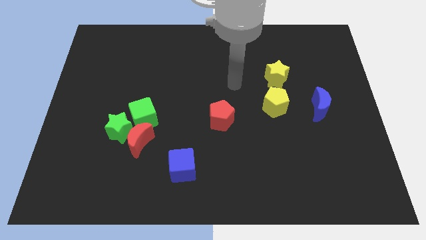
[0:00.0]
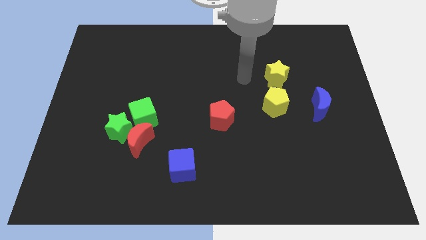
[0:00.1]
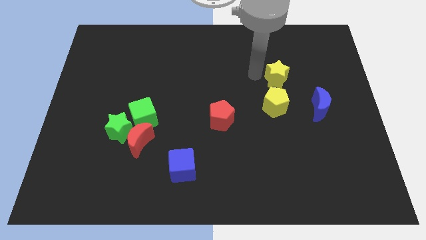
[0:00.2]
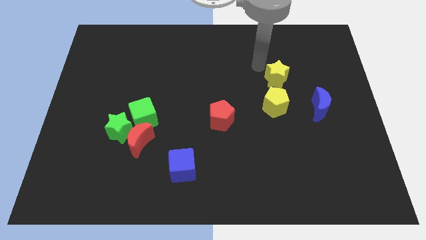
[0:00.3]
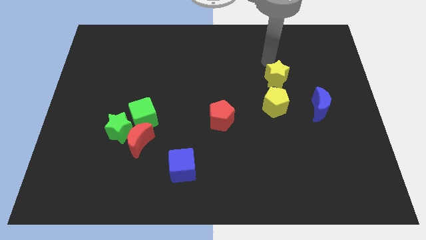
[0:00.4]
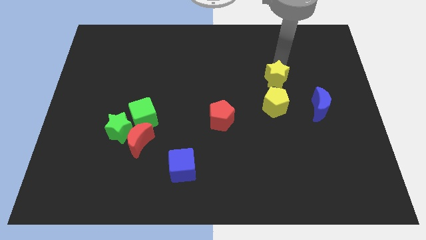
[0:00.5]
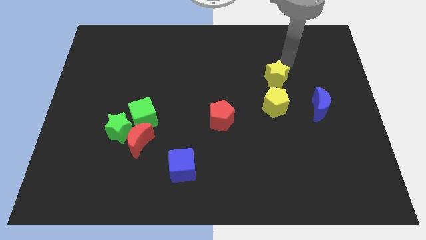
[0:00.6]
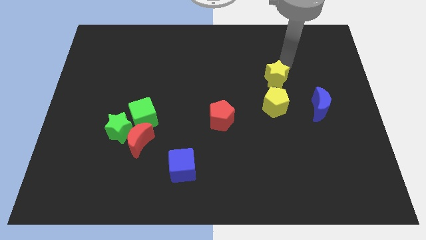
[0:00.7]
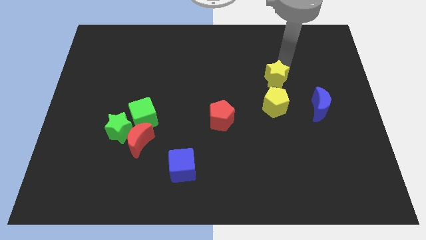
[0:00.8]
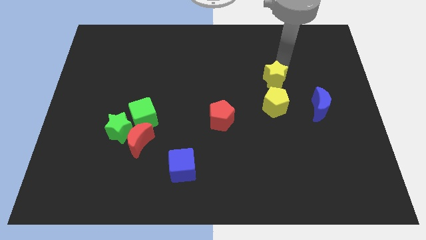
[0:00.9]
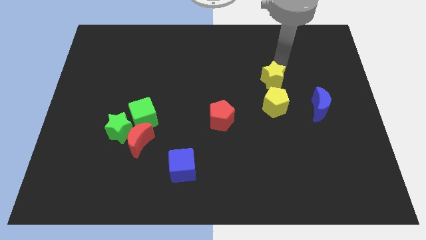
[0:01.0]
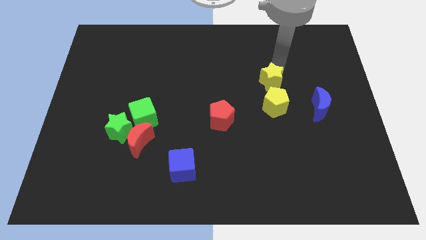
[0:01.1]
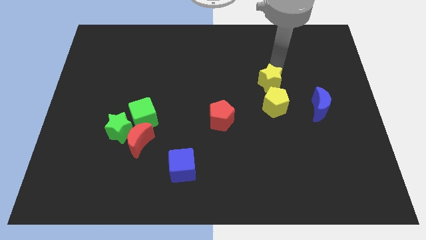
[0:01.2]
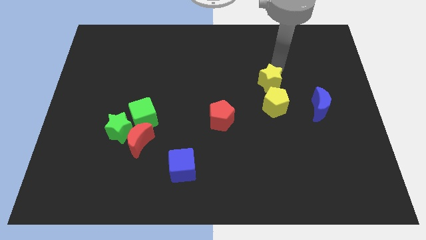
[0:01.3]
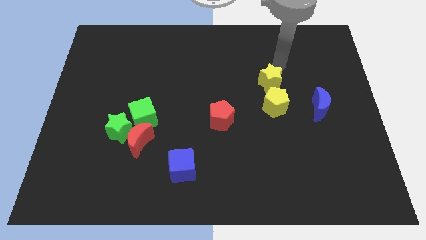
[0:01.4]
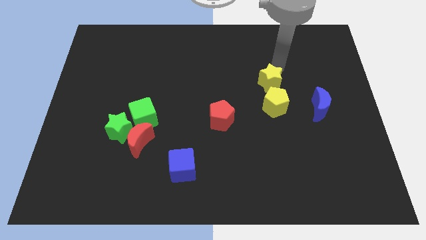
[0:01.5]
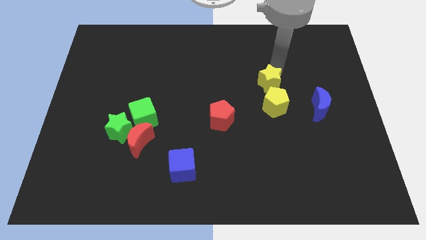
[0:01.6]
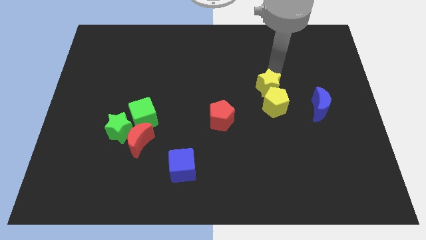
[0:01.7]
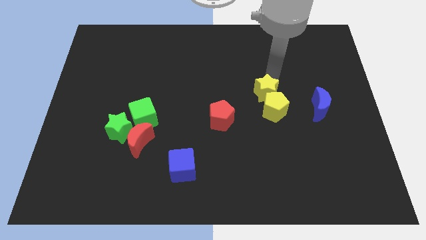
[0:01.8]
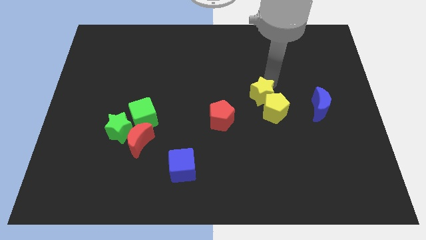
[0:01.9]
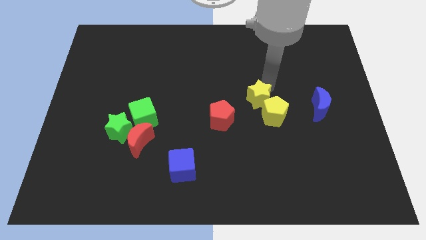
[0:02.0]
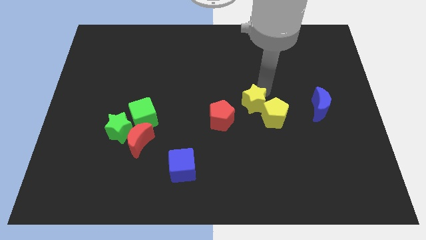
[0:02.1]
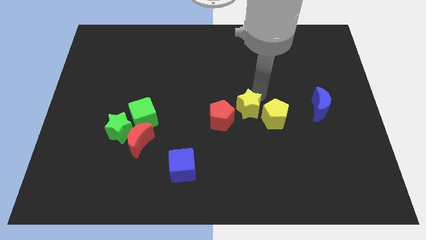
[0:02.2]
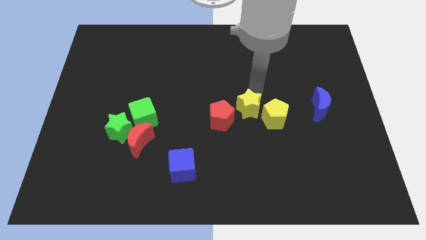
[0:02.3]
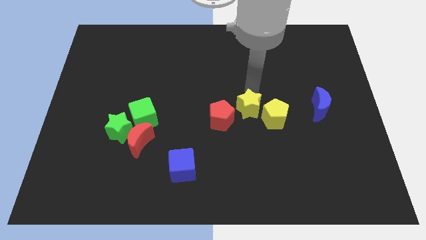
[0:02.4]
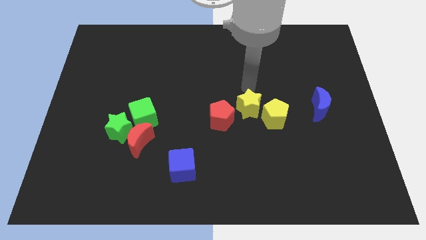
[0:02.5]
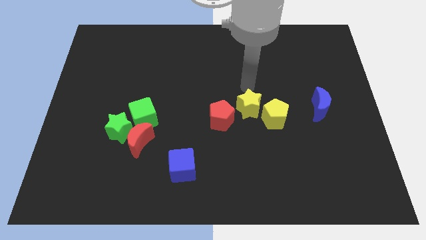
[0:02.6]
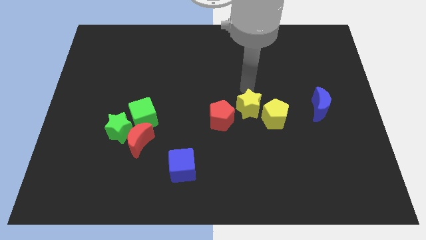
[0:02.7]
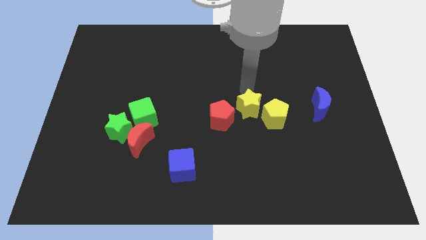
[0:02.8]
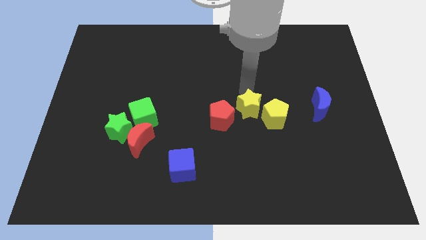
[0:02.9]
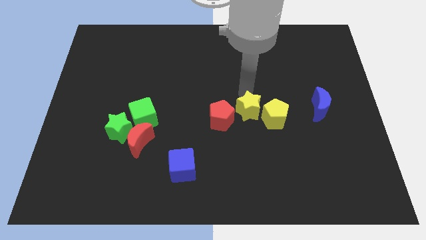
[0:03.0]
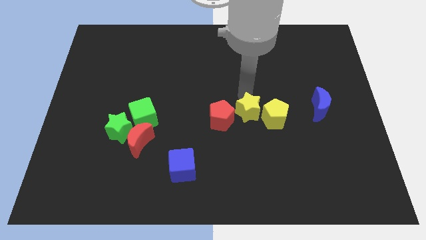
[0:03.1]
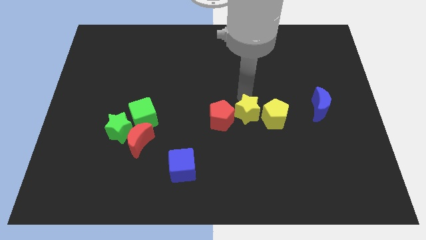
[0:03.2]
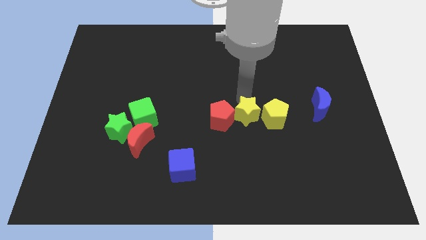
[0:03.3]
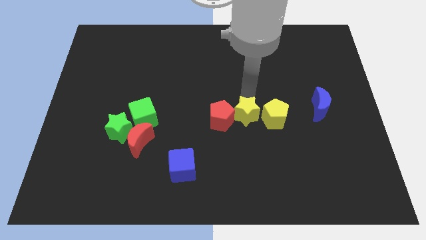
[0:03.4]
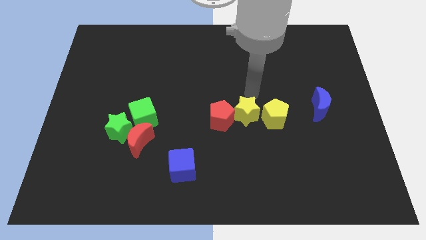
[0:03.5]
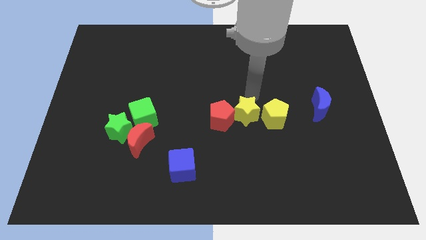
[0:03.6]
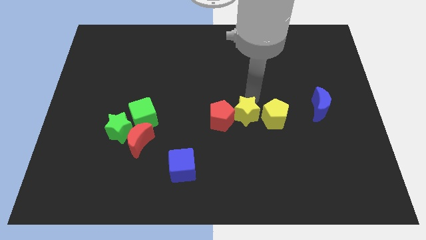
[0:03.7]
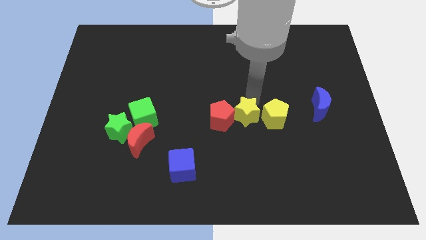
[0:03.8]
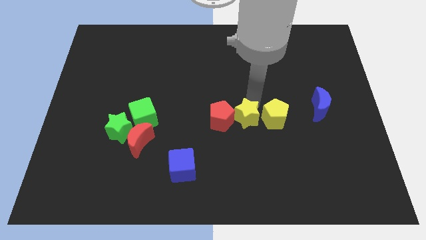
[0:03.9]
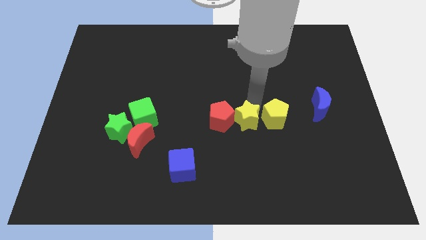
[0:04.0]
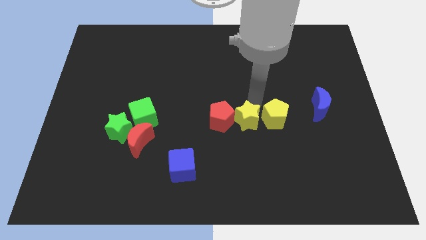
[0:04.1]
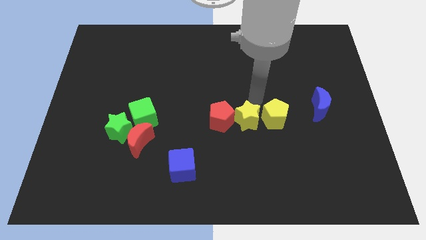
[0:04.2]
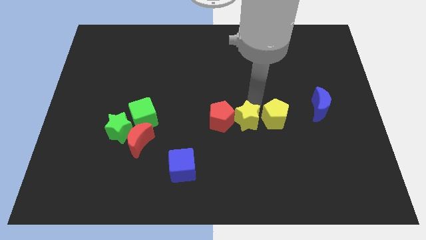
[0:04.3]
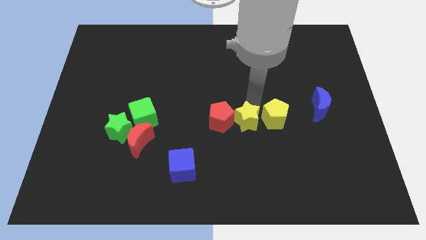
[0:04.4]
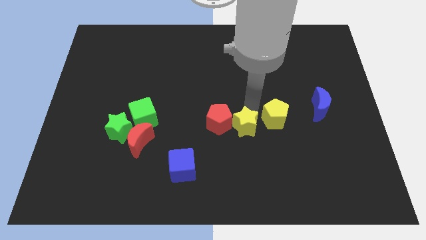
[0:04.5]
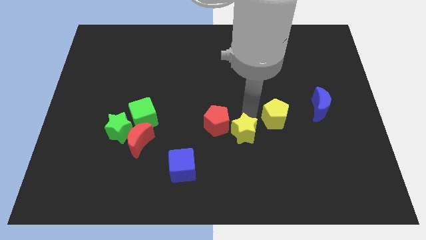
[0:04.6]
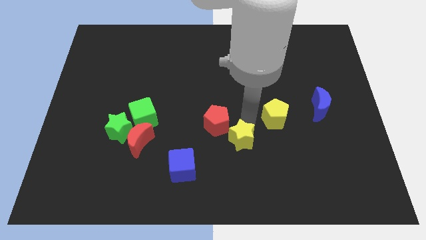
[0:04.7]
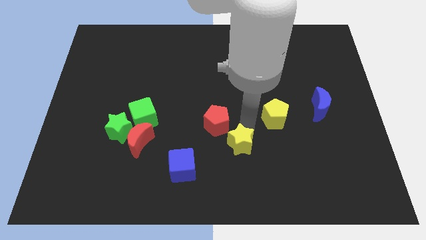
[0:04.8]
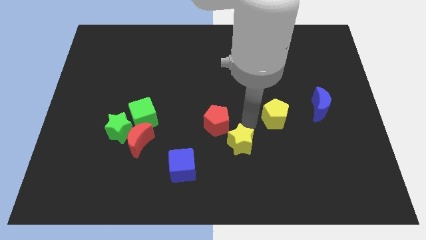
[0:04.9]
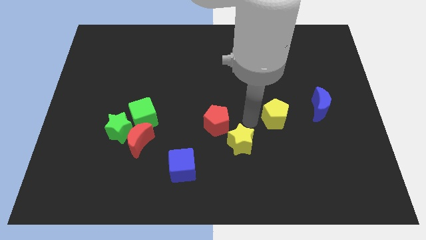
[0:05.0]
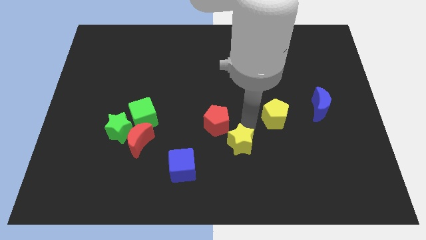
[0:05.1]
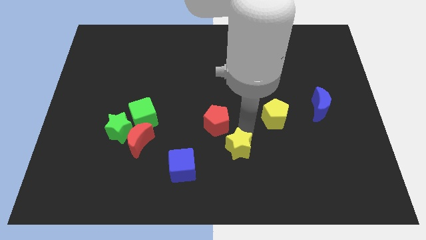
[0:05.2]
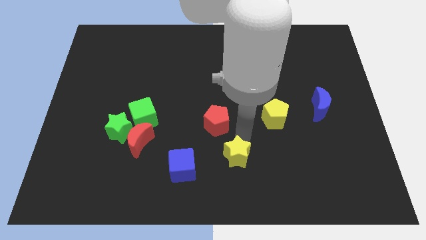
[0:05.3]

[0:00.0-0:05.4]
slide the yellow star to the bottom side

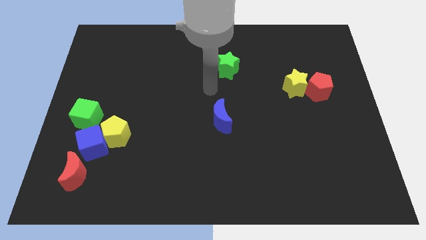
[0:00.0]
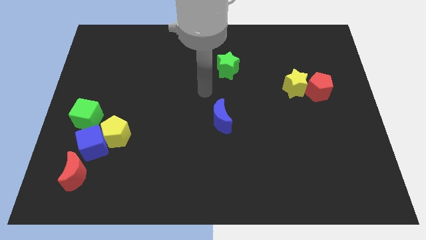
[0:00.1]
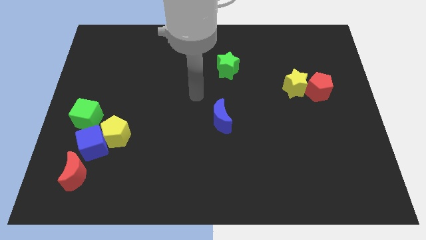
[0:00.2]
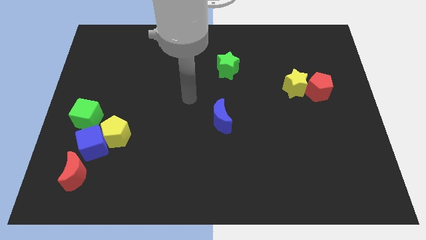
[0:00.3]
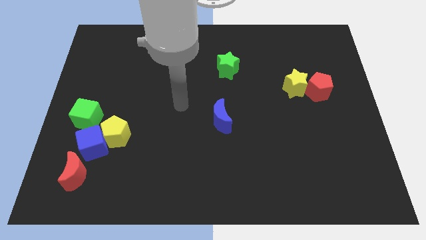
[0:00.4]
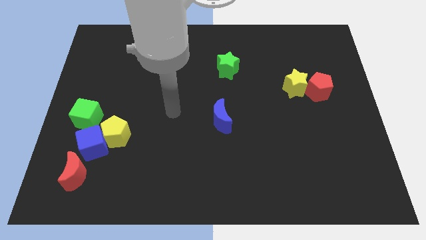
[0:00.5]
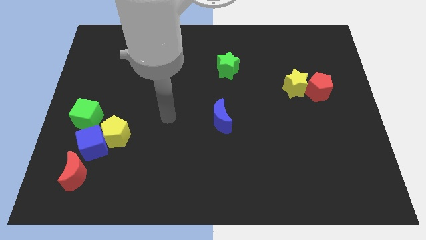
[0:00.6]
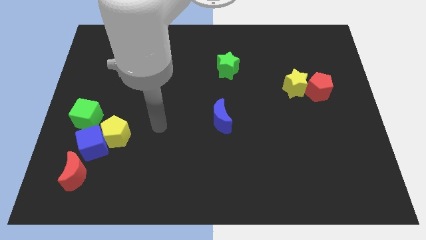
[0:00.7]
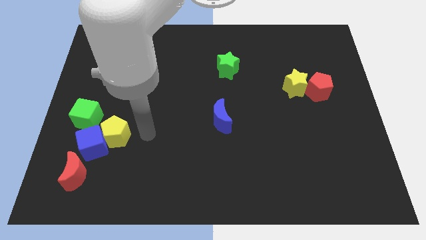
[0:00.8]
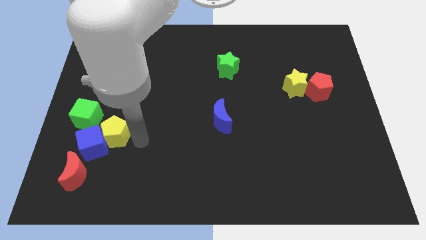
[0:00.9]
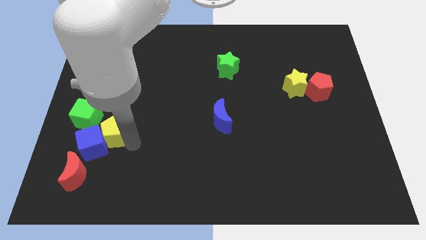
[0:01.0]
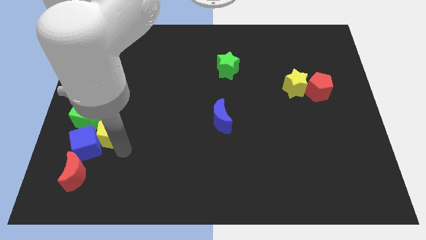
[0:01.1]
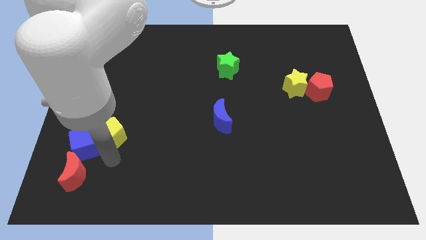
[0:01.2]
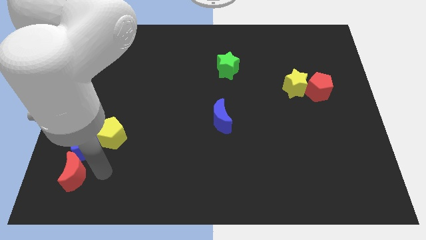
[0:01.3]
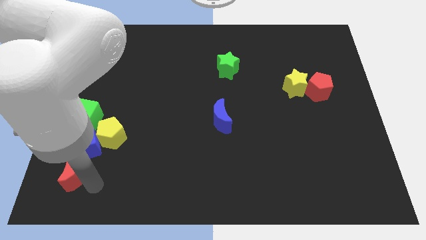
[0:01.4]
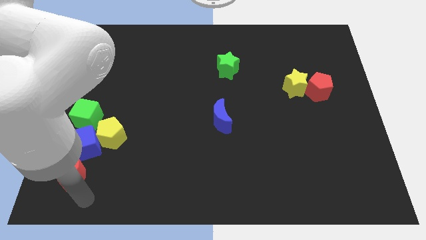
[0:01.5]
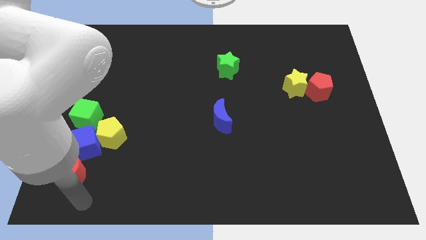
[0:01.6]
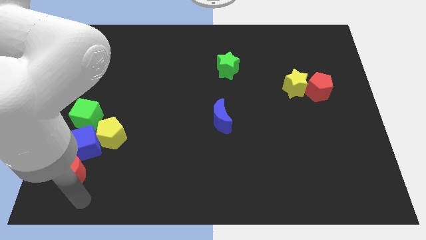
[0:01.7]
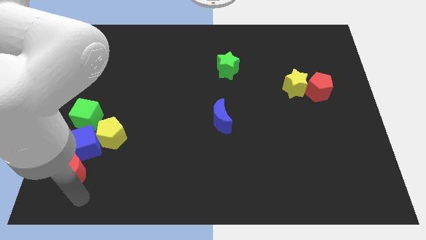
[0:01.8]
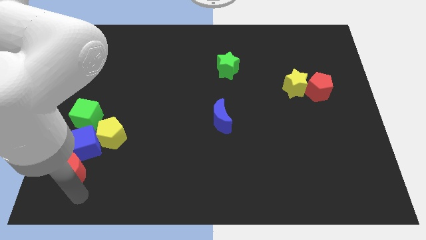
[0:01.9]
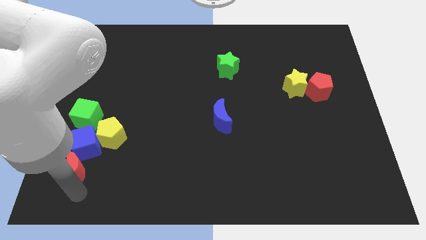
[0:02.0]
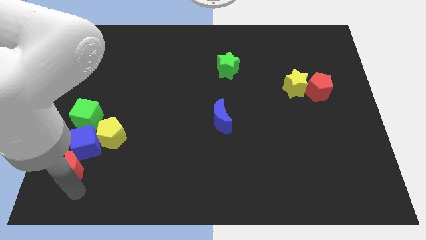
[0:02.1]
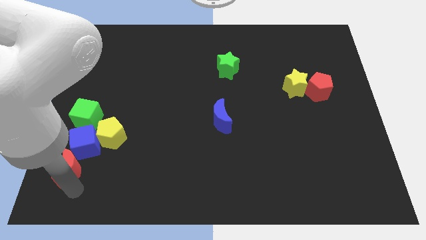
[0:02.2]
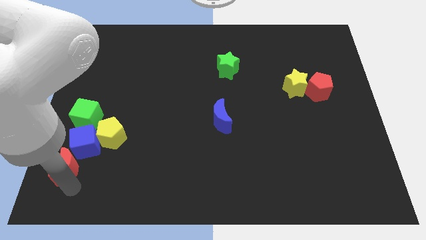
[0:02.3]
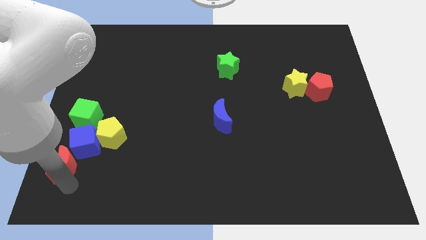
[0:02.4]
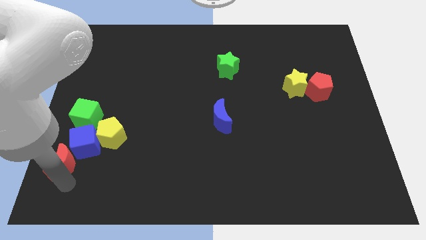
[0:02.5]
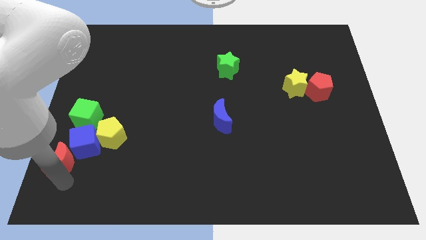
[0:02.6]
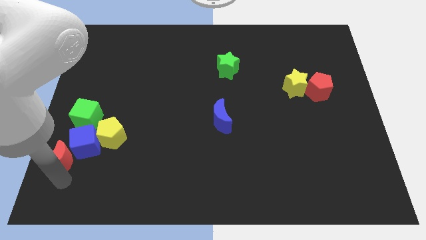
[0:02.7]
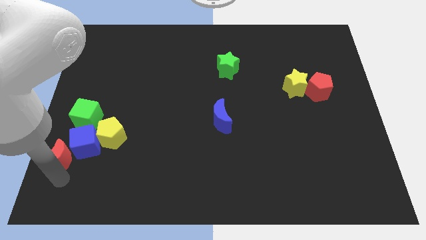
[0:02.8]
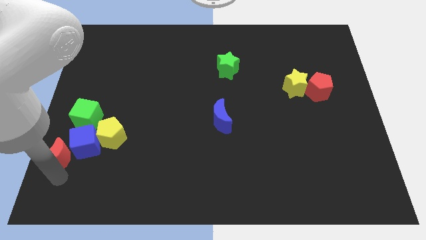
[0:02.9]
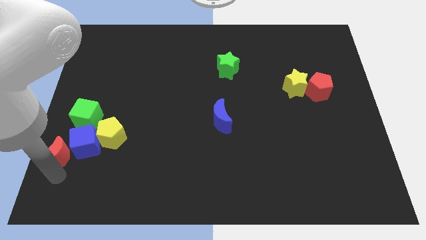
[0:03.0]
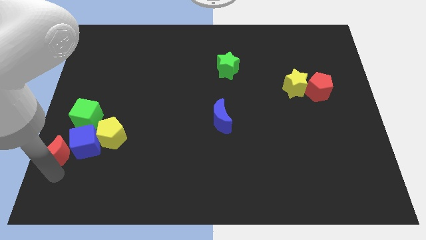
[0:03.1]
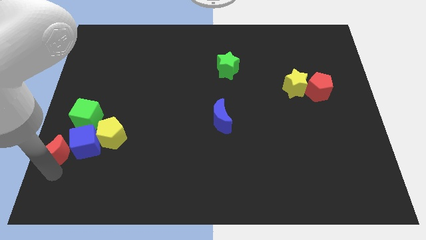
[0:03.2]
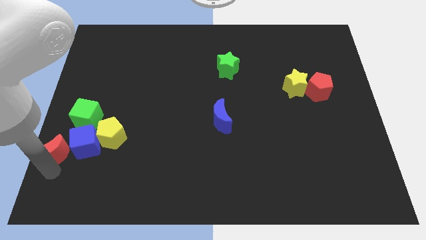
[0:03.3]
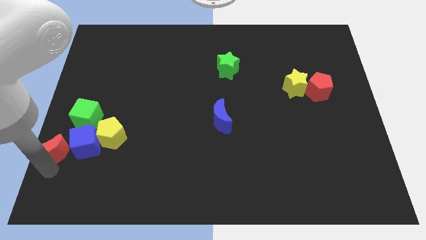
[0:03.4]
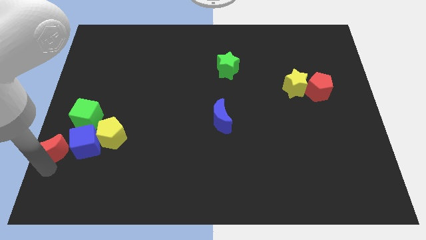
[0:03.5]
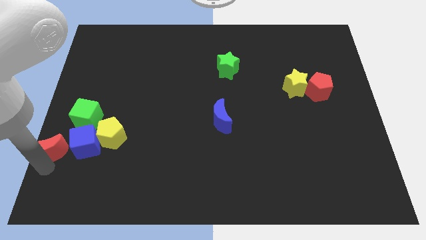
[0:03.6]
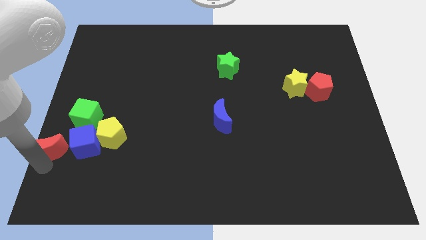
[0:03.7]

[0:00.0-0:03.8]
push the red moon to the left side of the board
